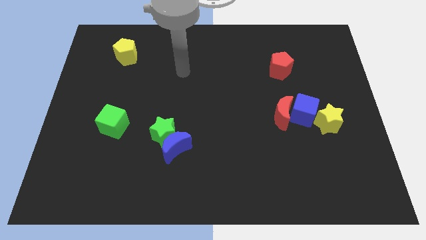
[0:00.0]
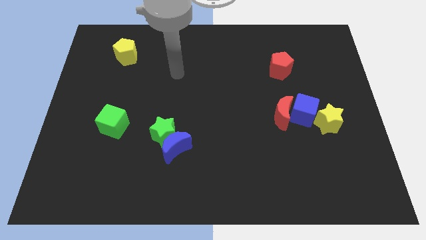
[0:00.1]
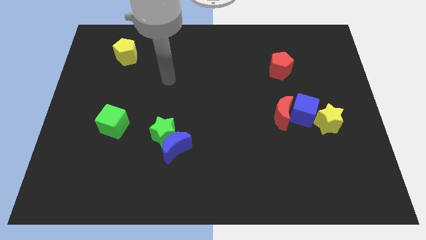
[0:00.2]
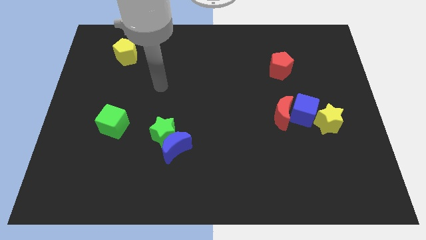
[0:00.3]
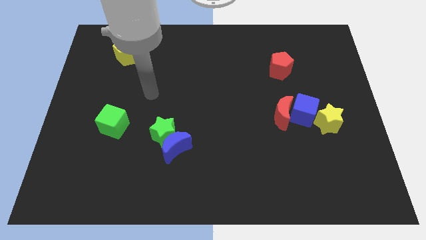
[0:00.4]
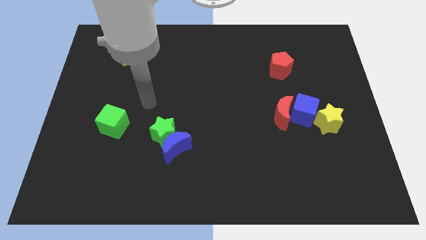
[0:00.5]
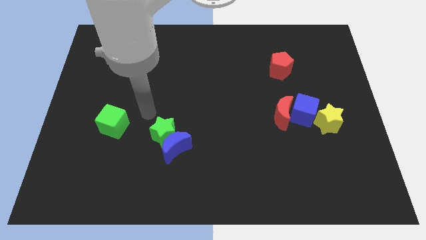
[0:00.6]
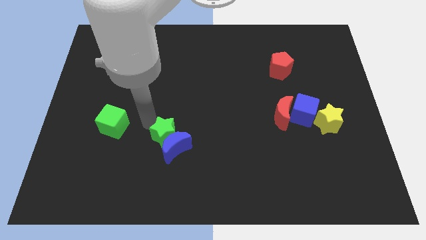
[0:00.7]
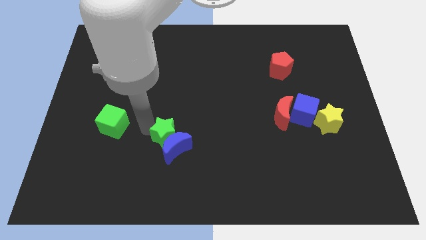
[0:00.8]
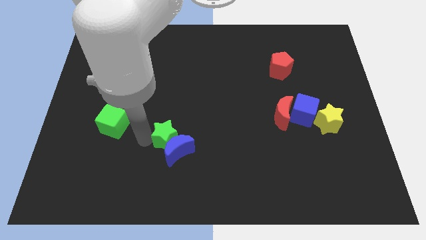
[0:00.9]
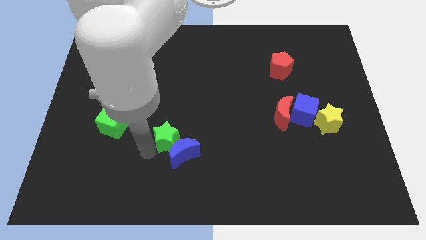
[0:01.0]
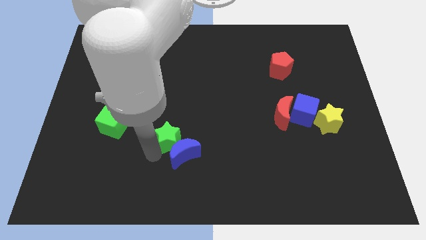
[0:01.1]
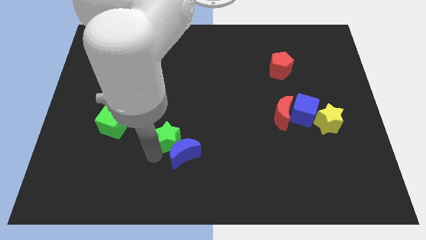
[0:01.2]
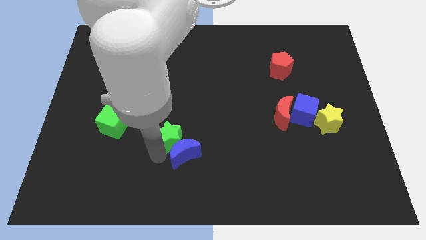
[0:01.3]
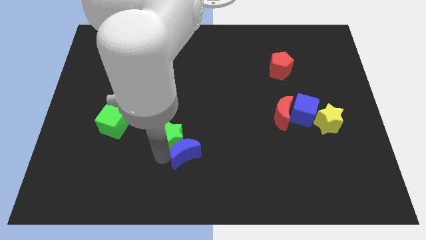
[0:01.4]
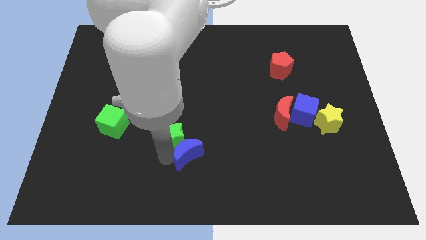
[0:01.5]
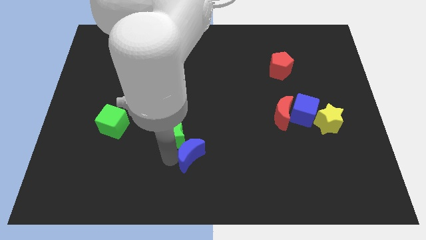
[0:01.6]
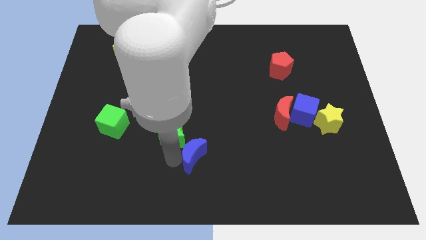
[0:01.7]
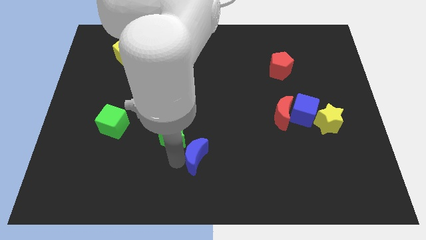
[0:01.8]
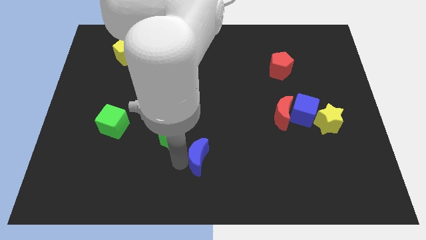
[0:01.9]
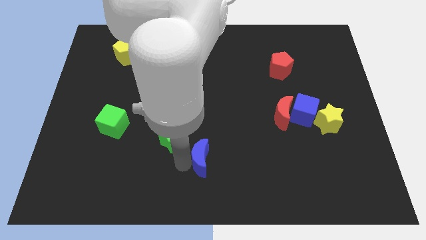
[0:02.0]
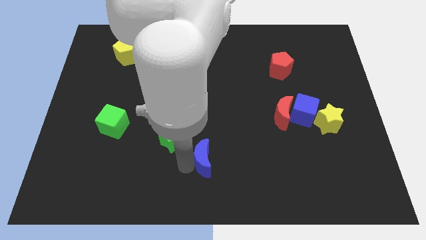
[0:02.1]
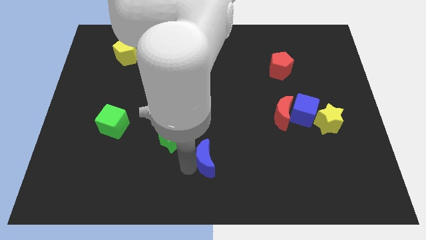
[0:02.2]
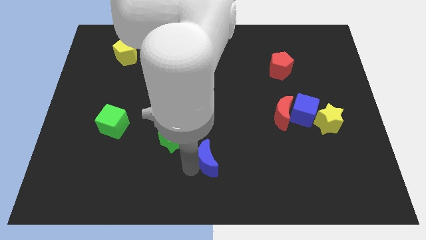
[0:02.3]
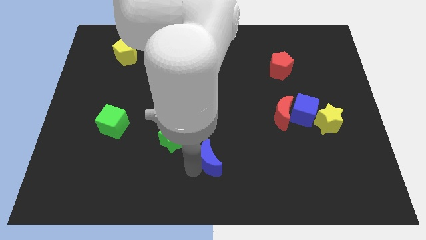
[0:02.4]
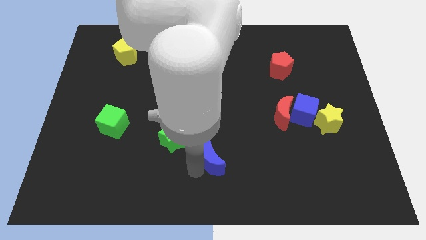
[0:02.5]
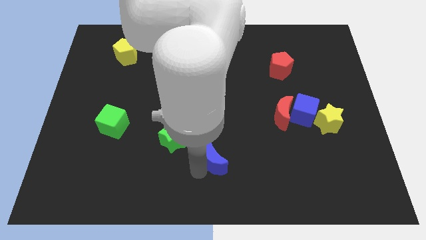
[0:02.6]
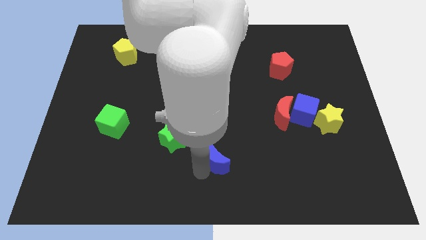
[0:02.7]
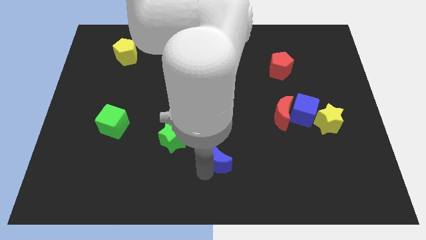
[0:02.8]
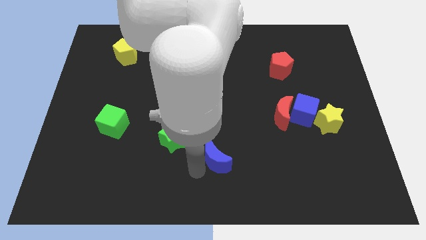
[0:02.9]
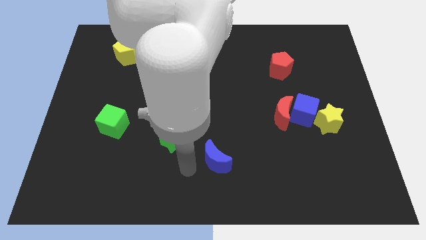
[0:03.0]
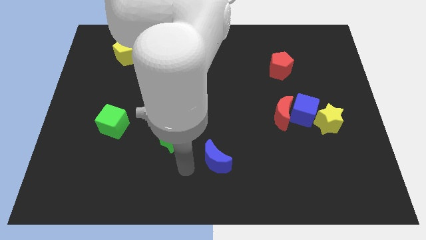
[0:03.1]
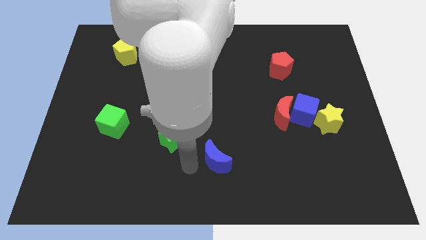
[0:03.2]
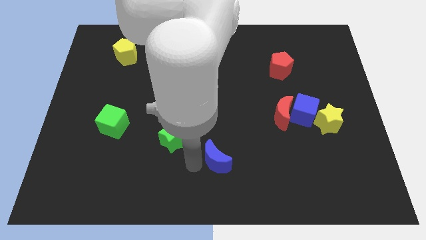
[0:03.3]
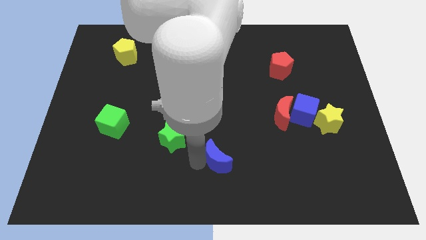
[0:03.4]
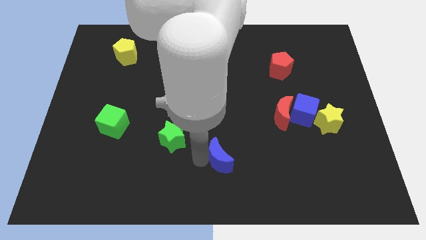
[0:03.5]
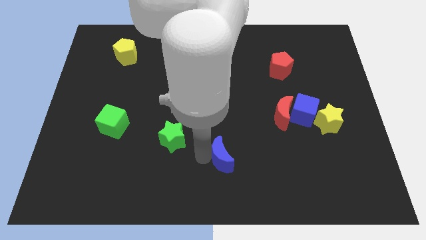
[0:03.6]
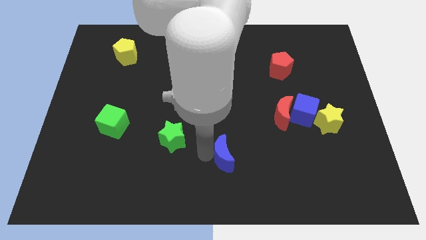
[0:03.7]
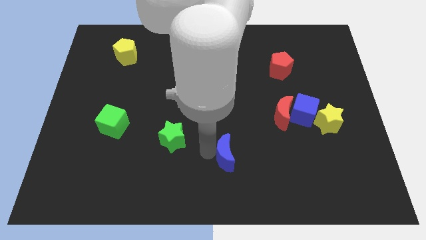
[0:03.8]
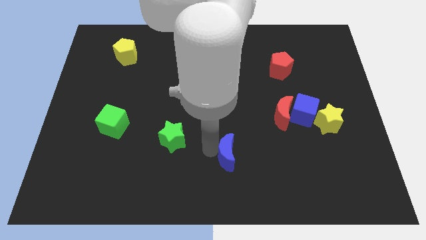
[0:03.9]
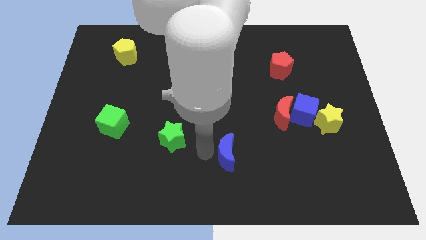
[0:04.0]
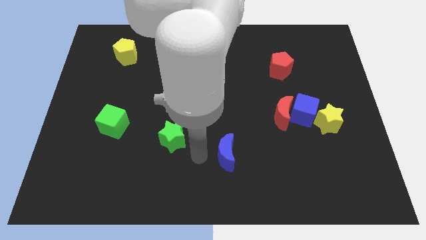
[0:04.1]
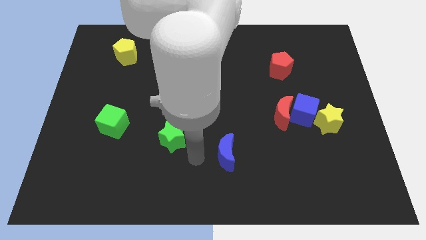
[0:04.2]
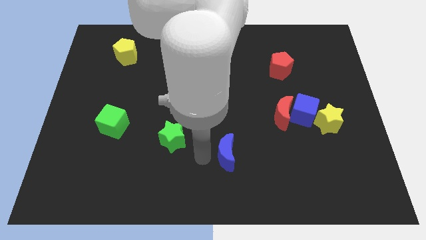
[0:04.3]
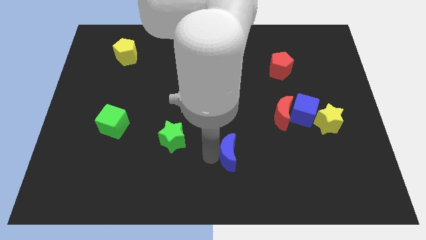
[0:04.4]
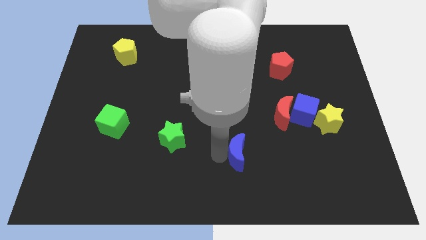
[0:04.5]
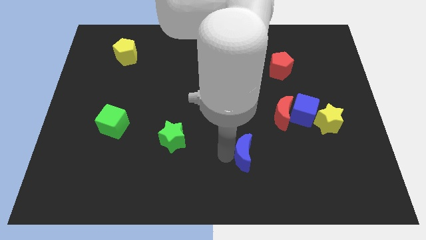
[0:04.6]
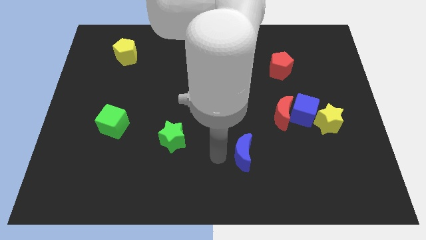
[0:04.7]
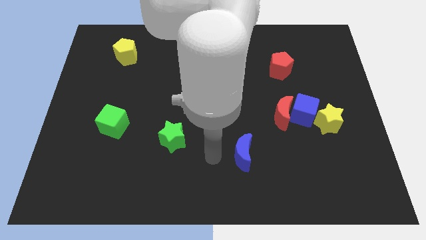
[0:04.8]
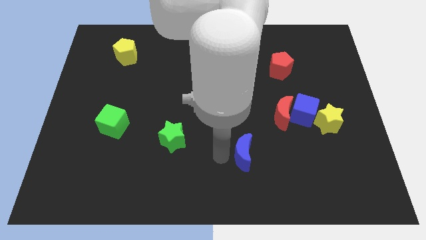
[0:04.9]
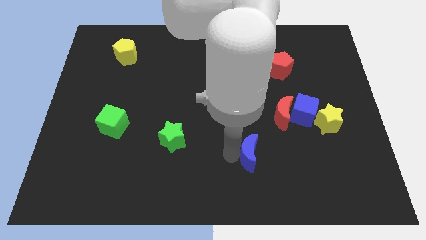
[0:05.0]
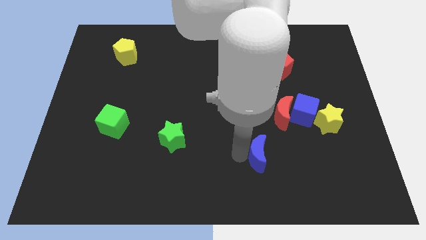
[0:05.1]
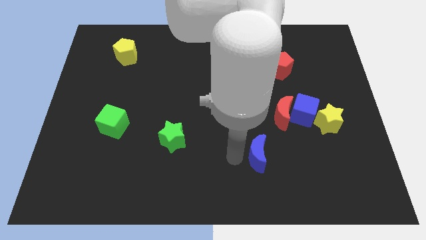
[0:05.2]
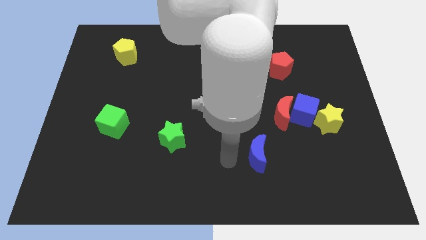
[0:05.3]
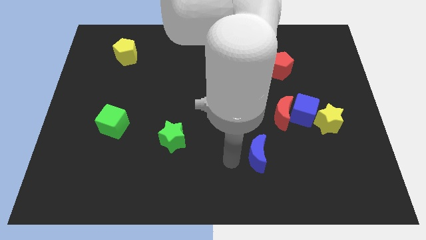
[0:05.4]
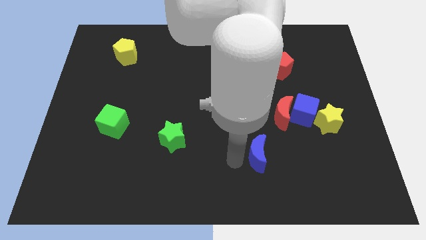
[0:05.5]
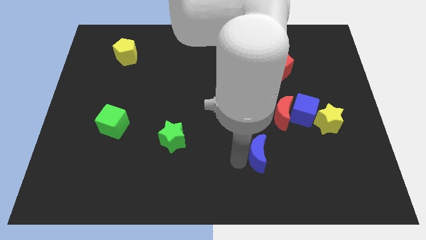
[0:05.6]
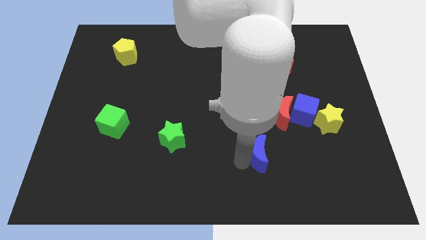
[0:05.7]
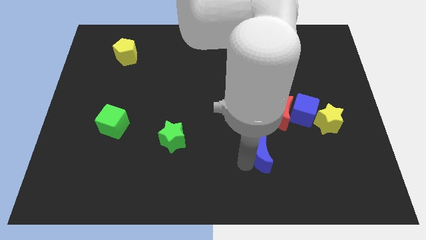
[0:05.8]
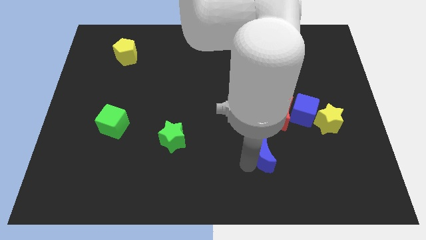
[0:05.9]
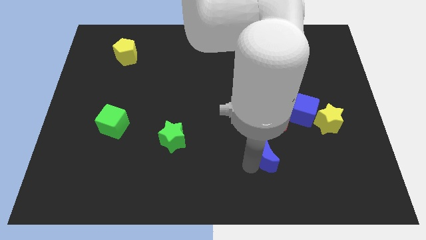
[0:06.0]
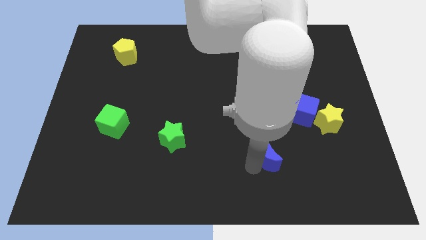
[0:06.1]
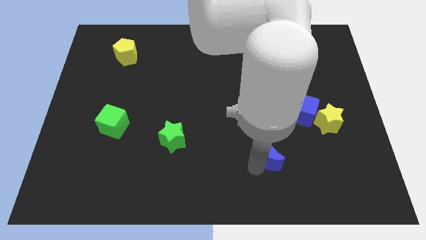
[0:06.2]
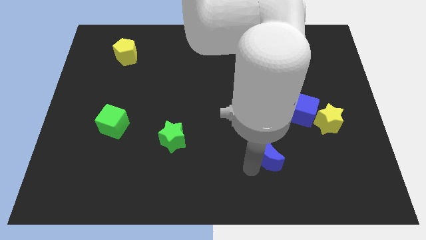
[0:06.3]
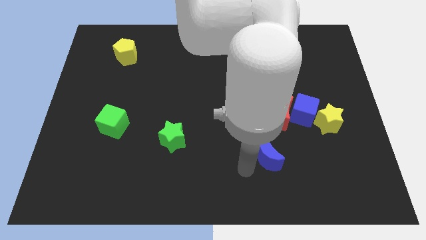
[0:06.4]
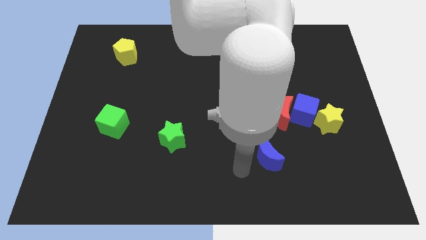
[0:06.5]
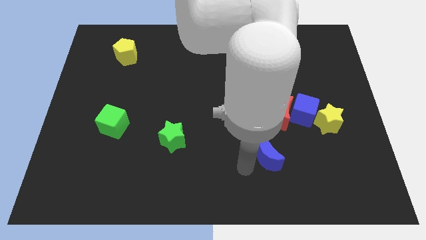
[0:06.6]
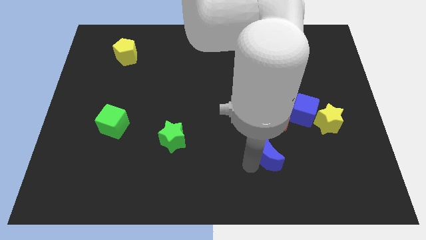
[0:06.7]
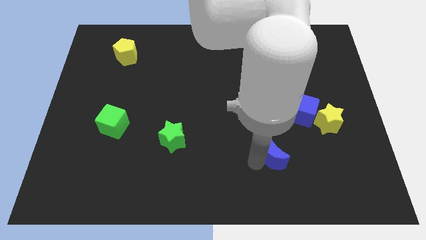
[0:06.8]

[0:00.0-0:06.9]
slide the blue moon to the right

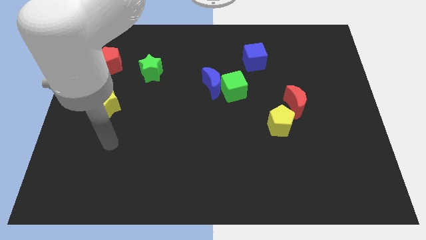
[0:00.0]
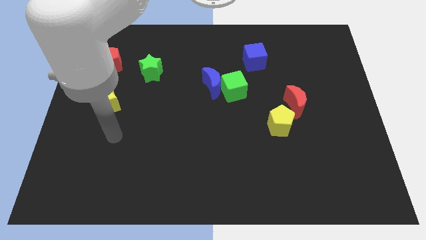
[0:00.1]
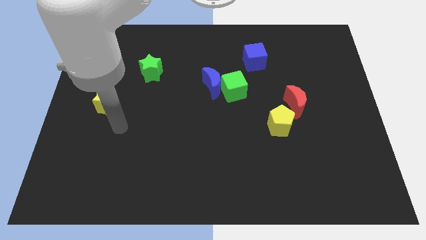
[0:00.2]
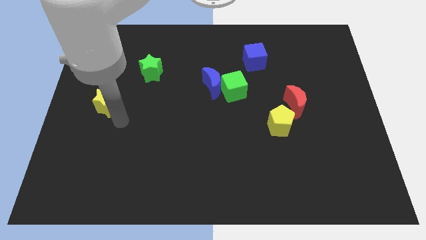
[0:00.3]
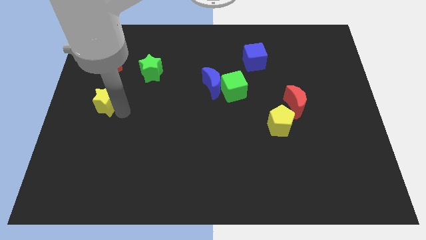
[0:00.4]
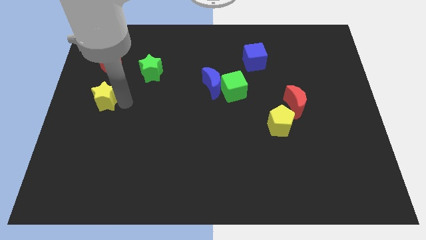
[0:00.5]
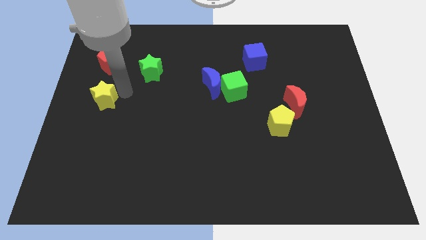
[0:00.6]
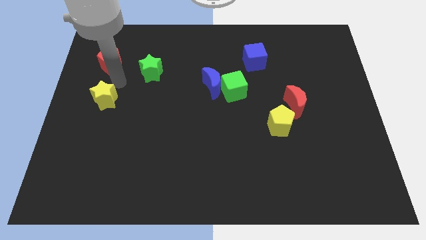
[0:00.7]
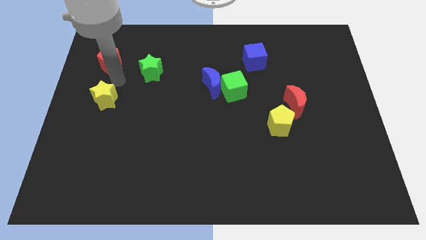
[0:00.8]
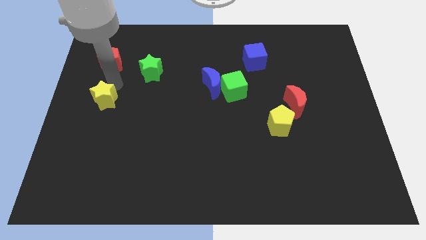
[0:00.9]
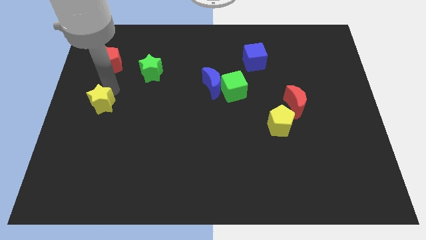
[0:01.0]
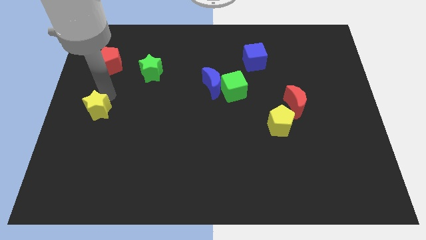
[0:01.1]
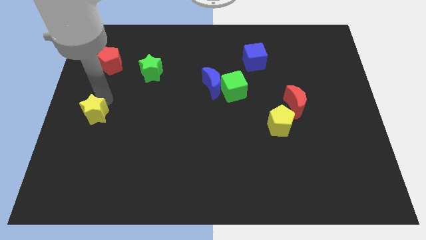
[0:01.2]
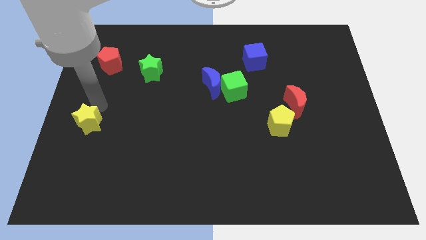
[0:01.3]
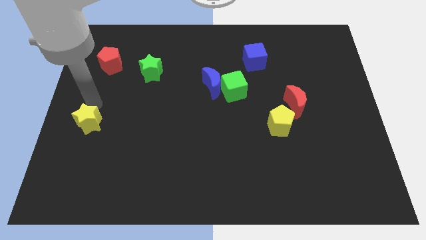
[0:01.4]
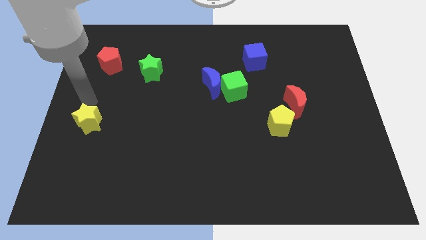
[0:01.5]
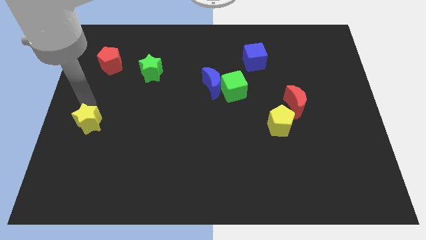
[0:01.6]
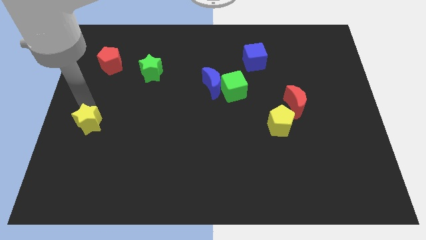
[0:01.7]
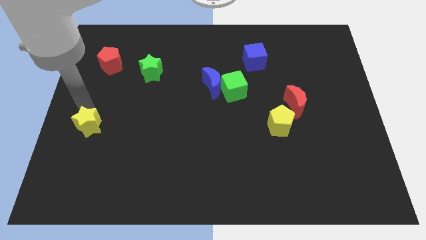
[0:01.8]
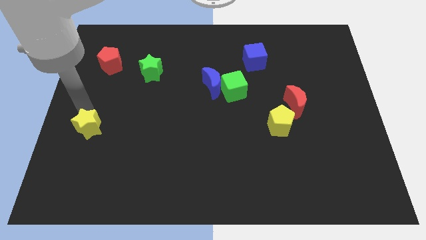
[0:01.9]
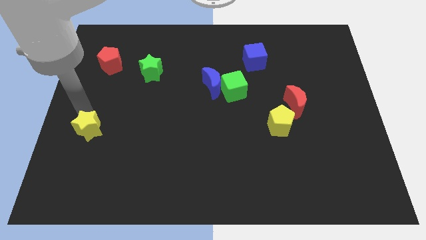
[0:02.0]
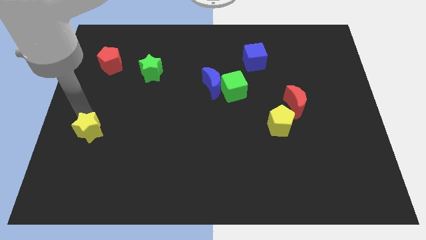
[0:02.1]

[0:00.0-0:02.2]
push the yellow star a bit downwards
